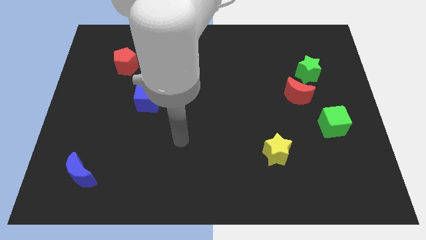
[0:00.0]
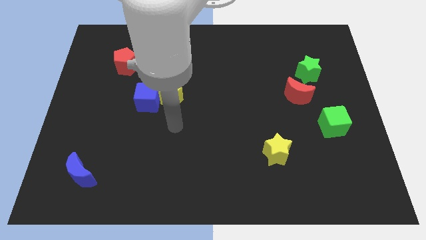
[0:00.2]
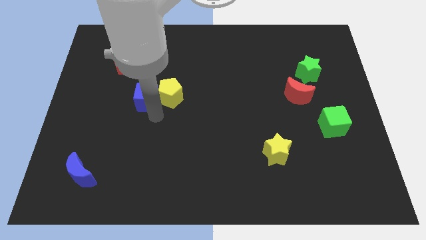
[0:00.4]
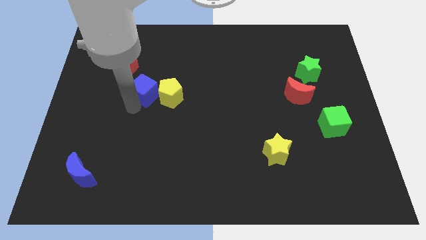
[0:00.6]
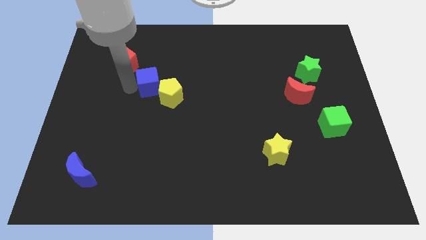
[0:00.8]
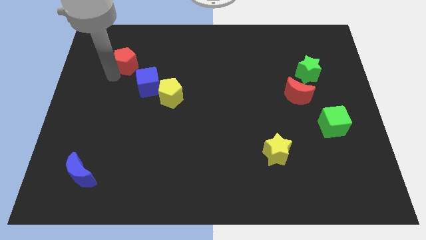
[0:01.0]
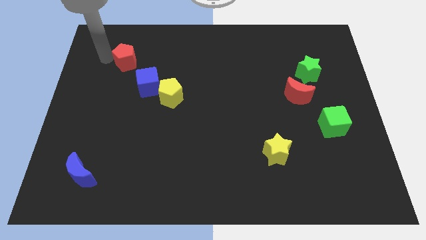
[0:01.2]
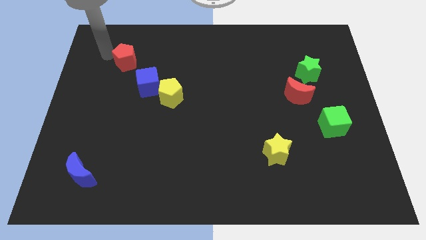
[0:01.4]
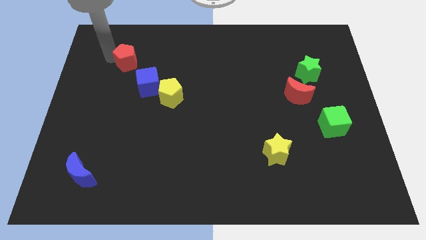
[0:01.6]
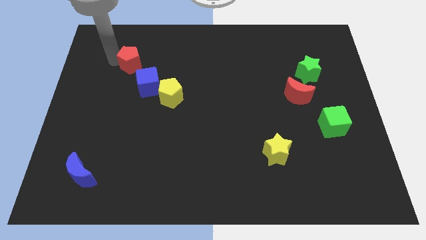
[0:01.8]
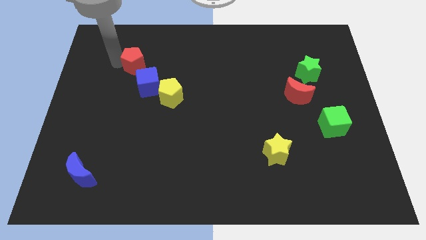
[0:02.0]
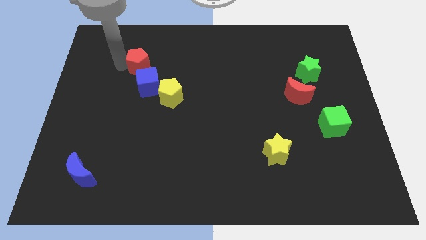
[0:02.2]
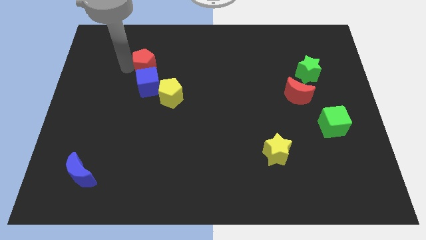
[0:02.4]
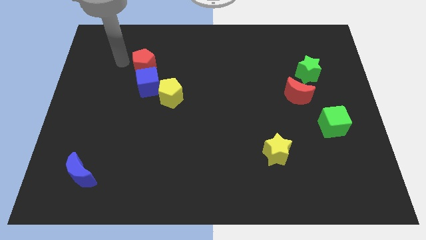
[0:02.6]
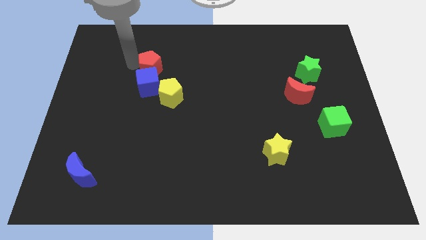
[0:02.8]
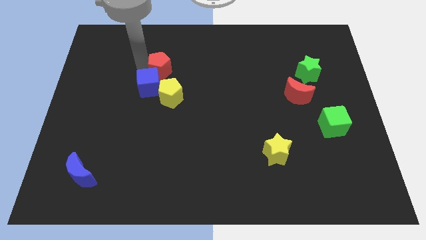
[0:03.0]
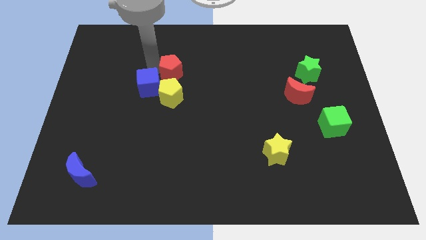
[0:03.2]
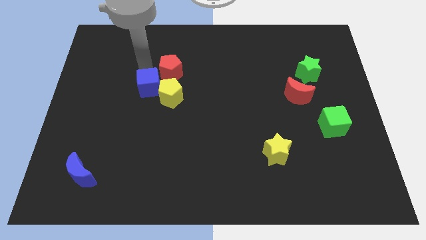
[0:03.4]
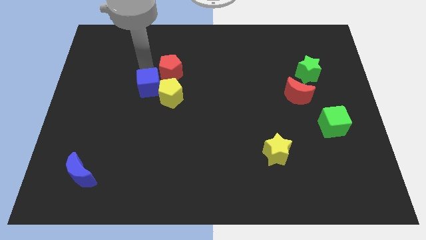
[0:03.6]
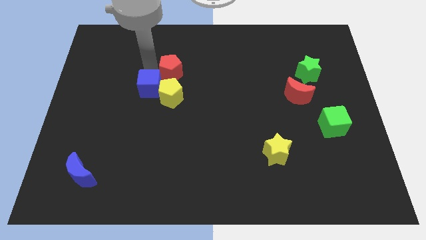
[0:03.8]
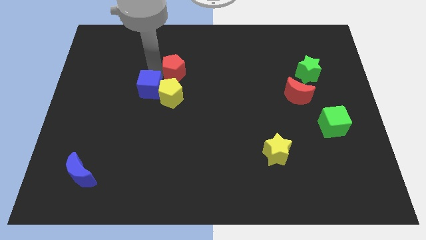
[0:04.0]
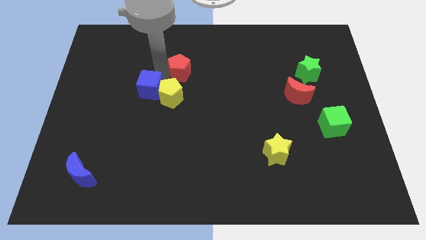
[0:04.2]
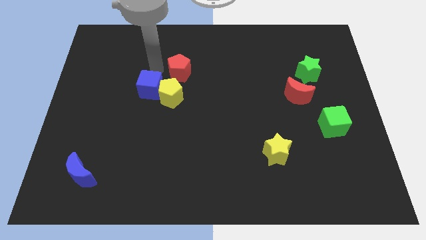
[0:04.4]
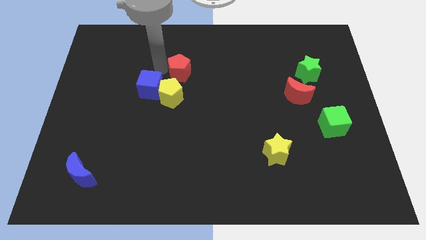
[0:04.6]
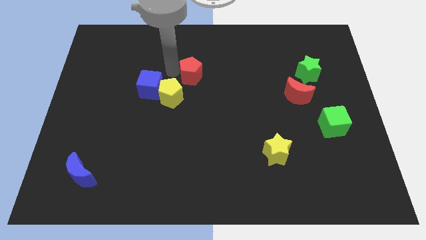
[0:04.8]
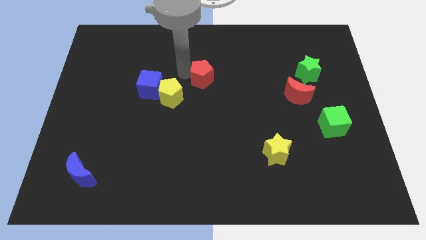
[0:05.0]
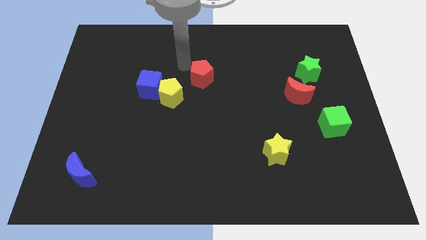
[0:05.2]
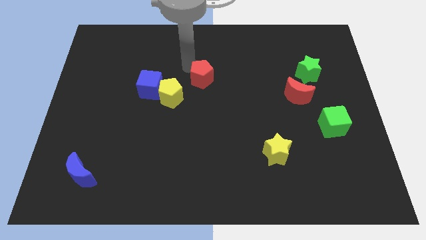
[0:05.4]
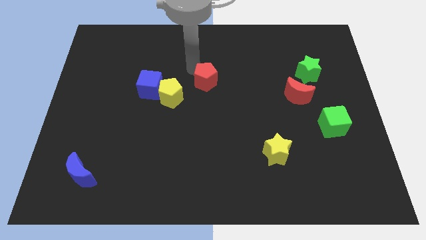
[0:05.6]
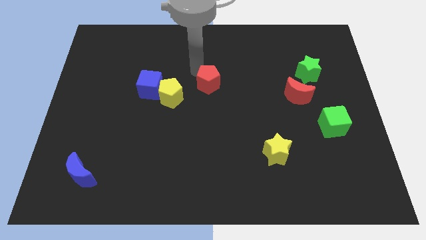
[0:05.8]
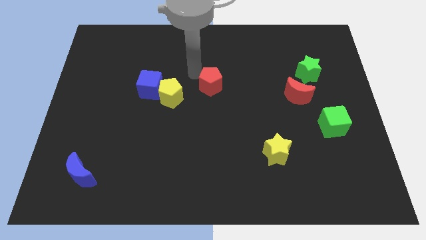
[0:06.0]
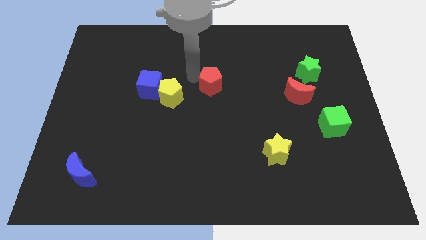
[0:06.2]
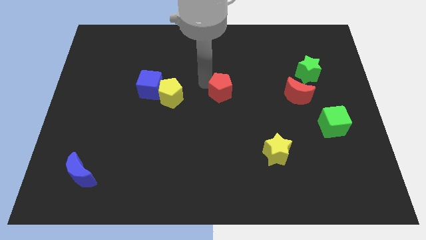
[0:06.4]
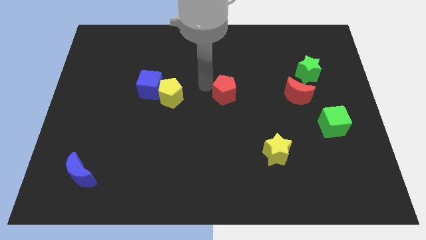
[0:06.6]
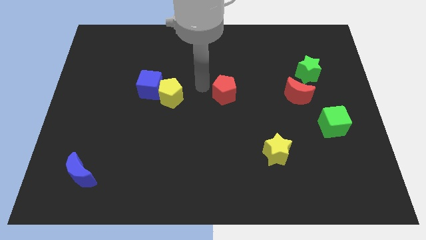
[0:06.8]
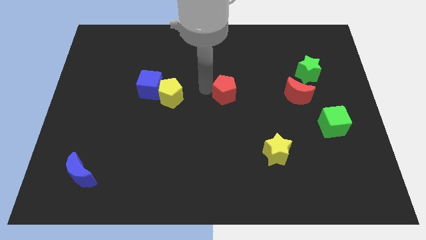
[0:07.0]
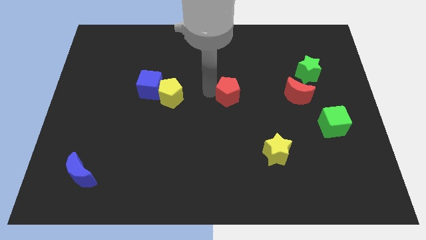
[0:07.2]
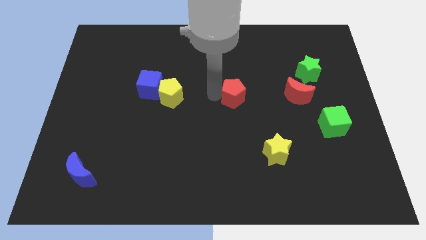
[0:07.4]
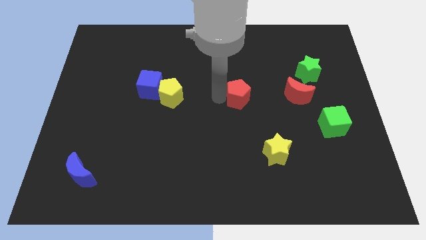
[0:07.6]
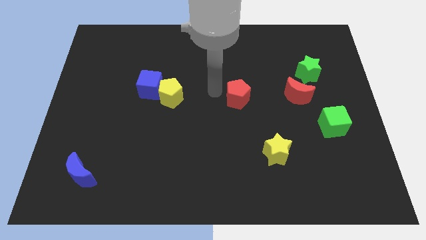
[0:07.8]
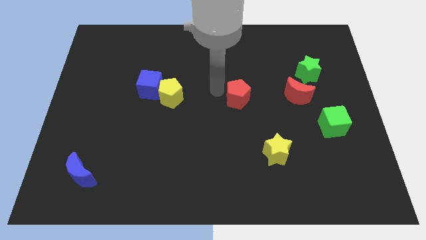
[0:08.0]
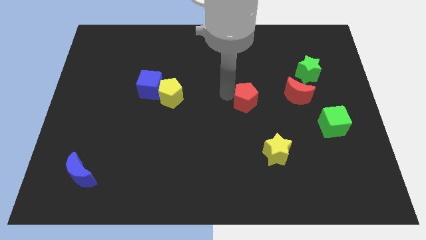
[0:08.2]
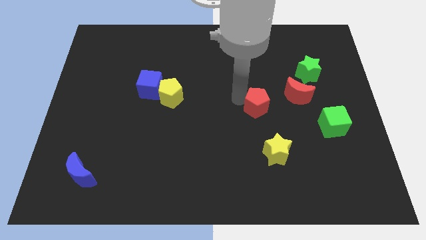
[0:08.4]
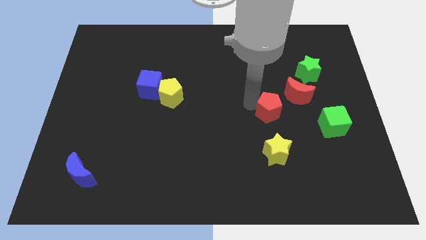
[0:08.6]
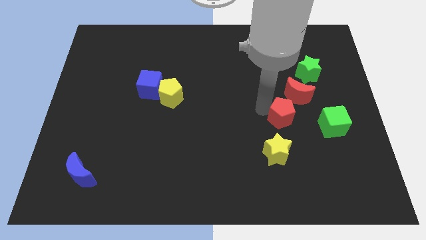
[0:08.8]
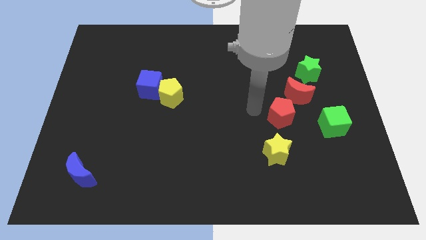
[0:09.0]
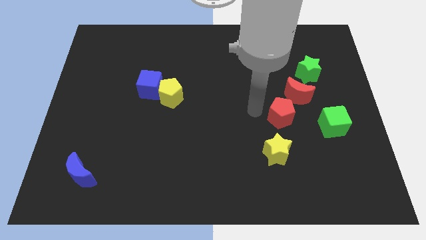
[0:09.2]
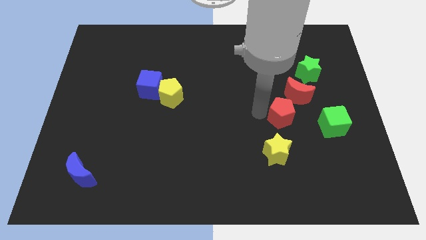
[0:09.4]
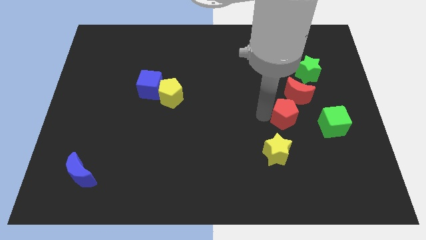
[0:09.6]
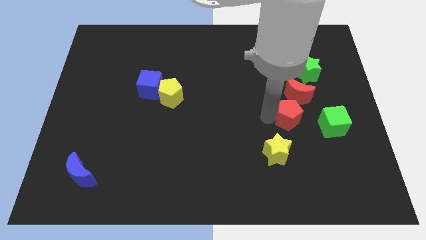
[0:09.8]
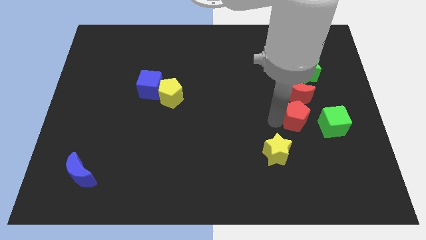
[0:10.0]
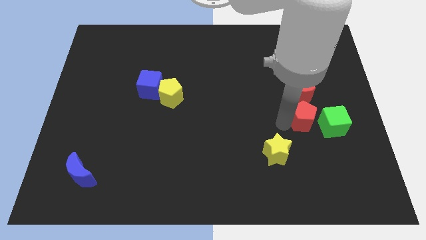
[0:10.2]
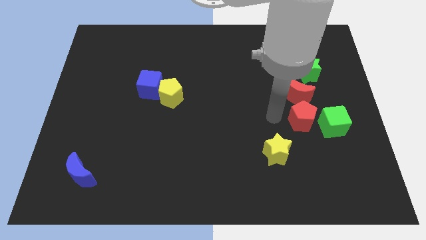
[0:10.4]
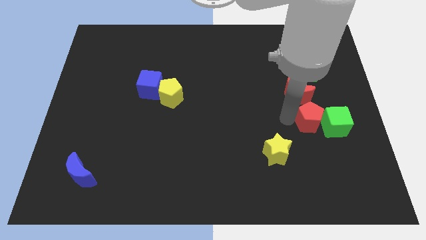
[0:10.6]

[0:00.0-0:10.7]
put the red pentagon next to the green cube

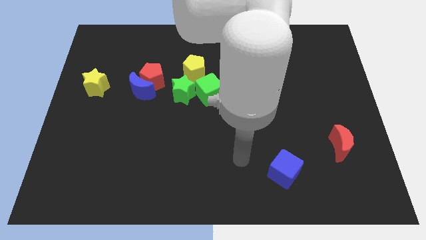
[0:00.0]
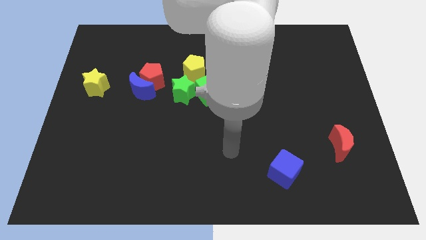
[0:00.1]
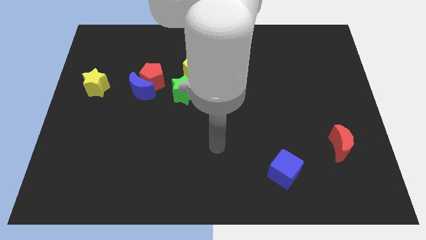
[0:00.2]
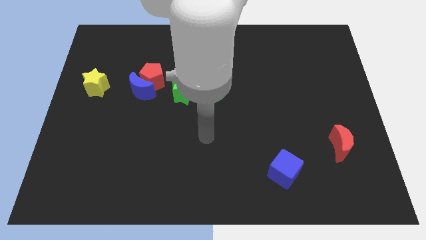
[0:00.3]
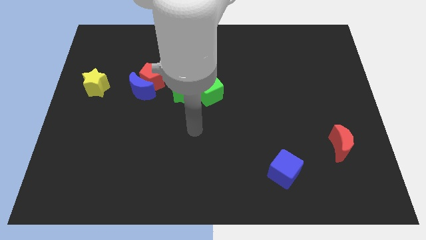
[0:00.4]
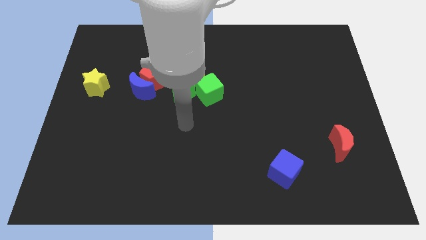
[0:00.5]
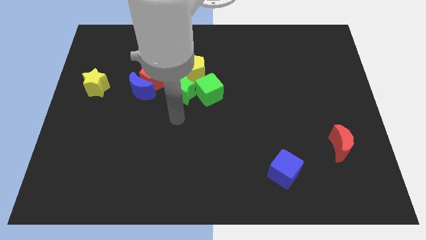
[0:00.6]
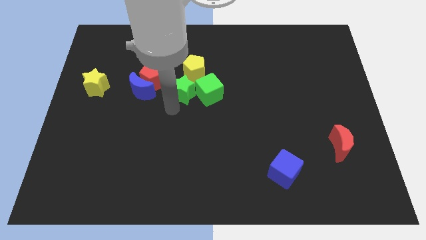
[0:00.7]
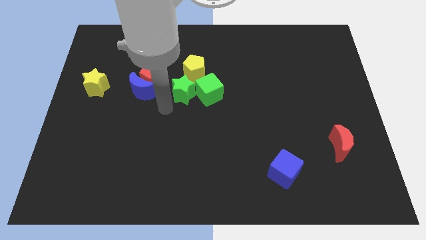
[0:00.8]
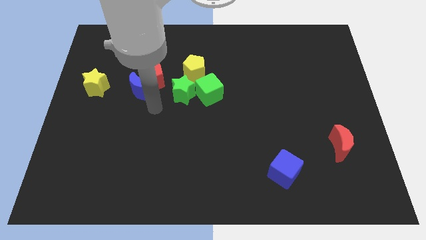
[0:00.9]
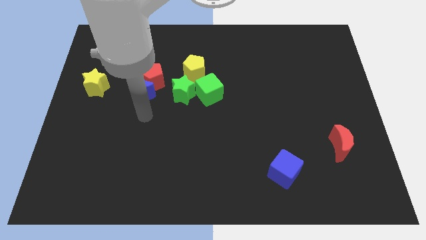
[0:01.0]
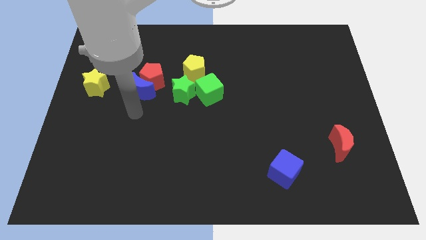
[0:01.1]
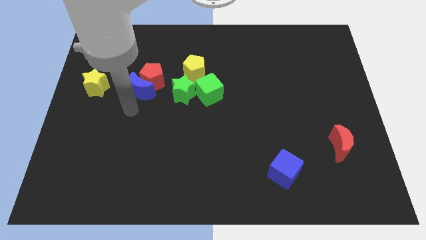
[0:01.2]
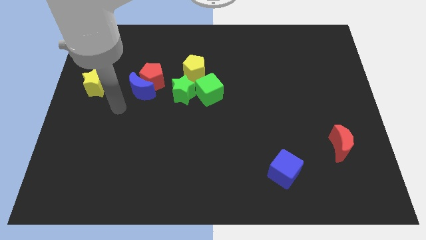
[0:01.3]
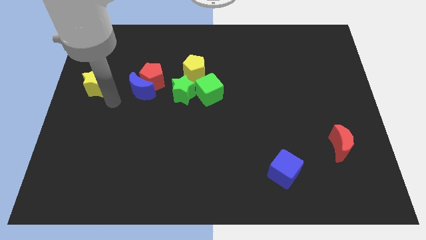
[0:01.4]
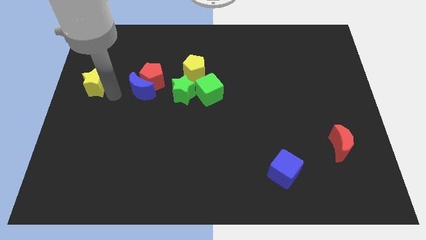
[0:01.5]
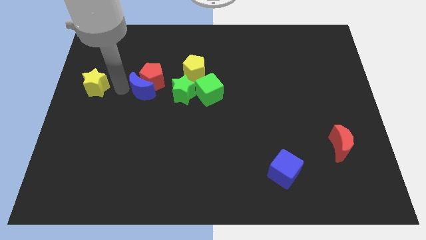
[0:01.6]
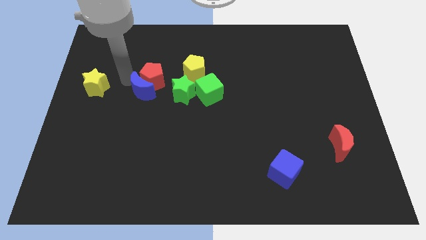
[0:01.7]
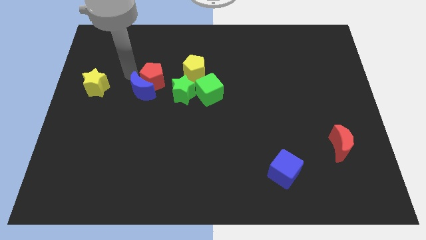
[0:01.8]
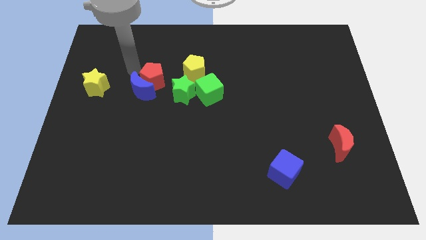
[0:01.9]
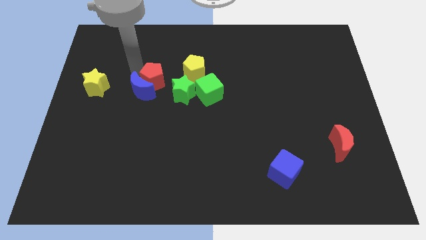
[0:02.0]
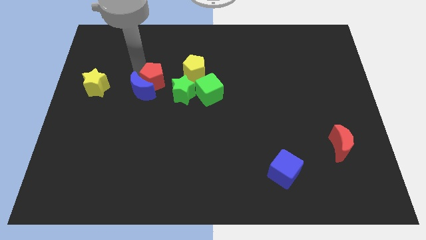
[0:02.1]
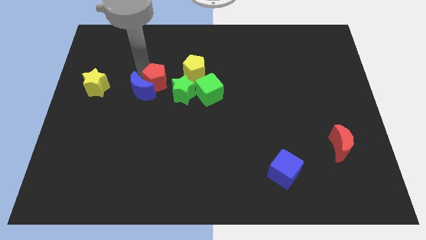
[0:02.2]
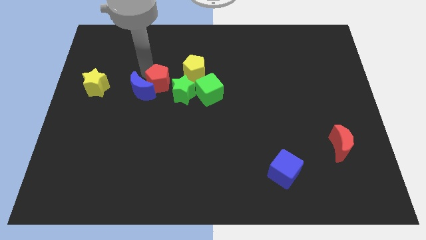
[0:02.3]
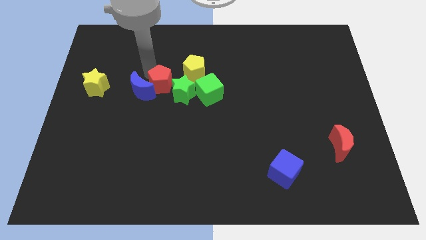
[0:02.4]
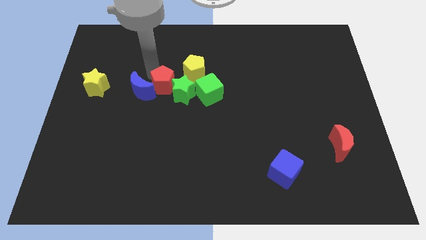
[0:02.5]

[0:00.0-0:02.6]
move the red pentagon next to the green star
